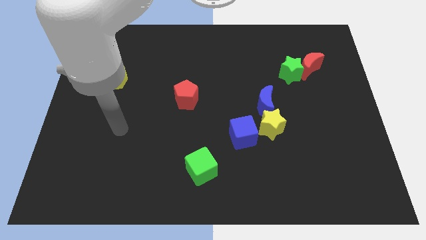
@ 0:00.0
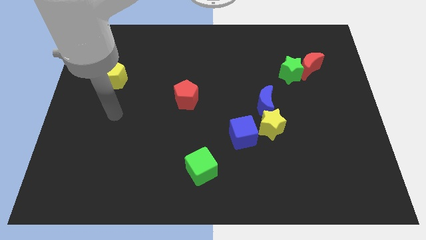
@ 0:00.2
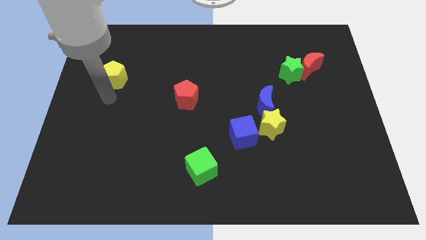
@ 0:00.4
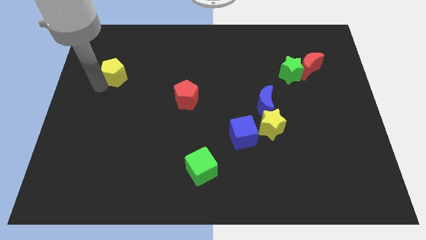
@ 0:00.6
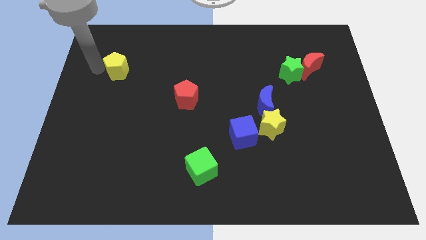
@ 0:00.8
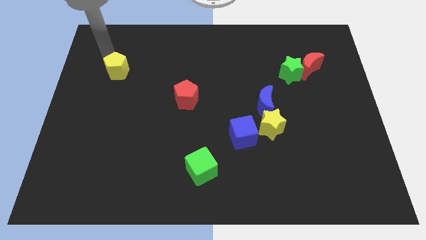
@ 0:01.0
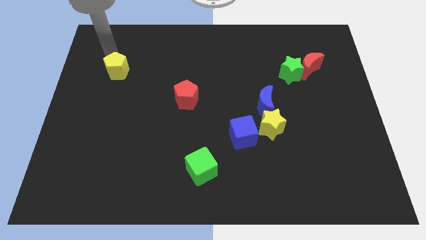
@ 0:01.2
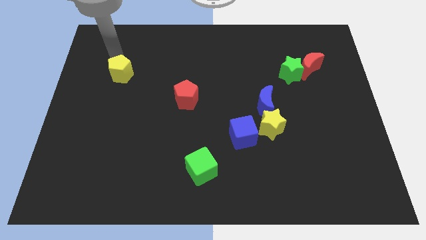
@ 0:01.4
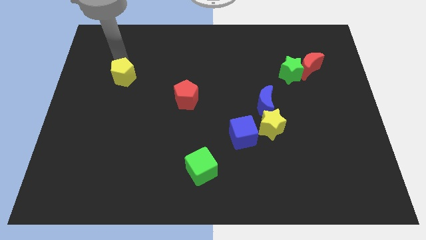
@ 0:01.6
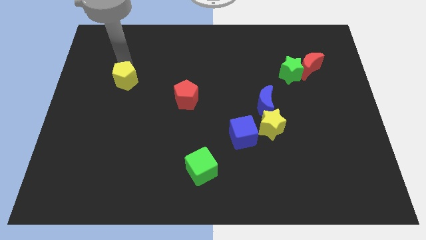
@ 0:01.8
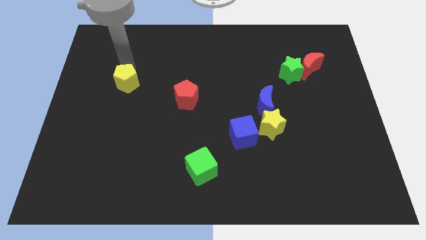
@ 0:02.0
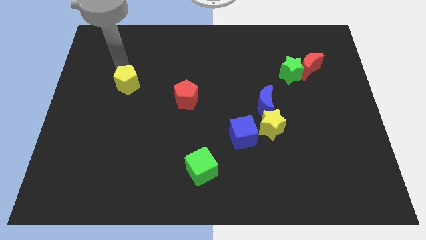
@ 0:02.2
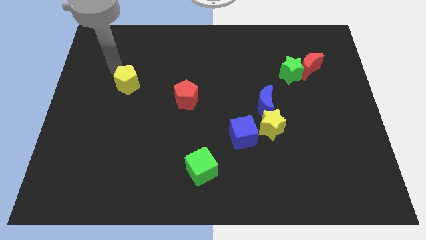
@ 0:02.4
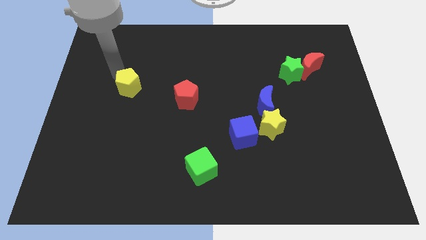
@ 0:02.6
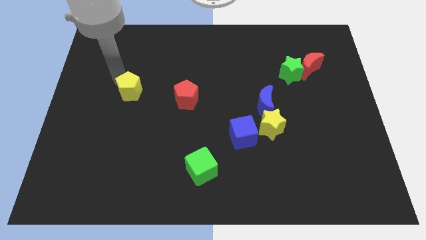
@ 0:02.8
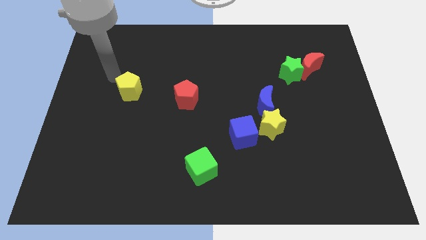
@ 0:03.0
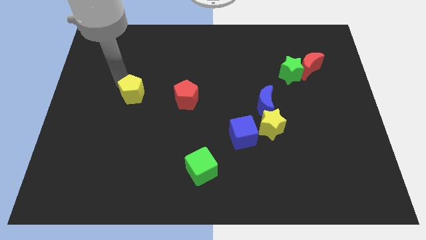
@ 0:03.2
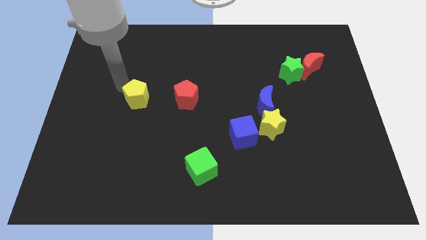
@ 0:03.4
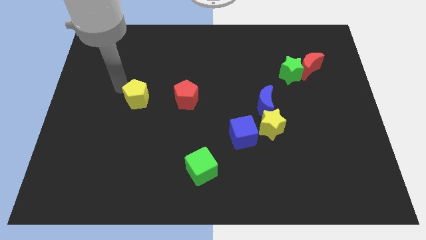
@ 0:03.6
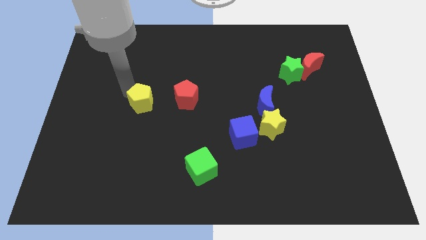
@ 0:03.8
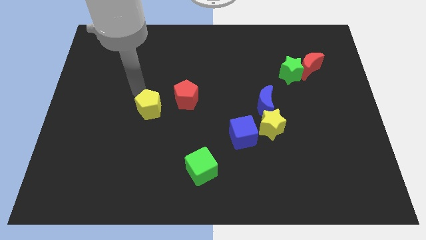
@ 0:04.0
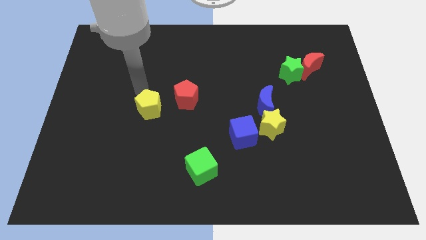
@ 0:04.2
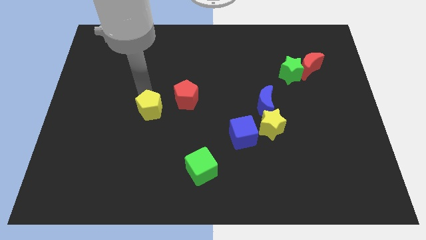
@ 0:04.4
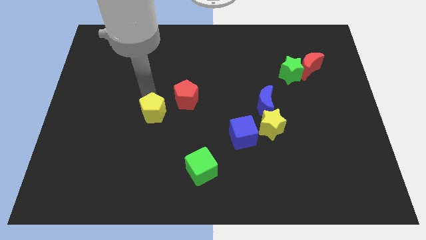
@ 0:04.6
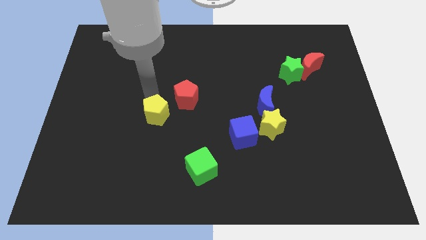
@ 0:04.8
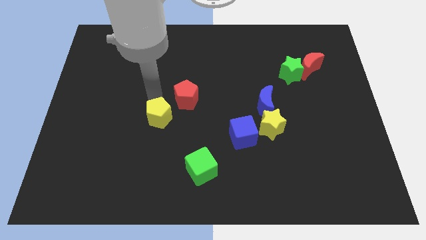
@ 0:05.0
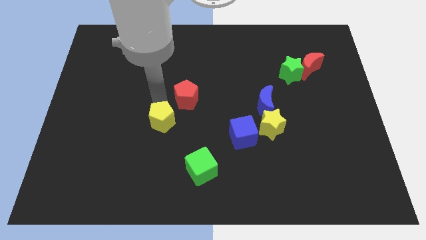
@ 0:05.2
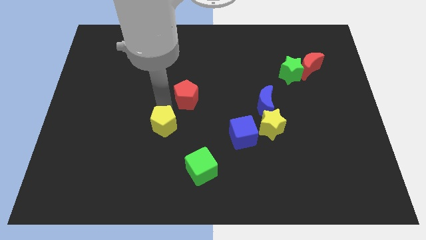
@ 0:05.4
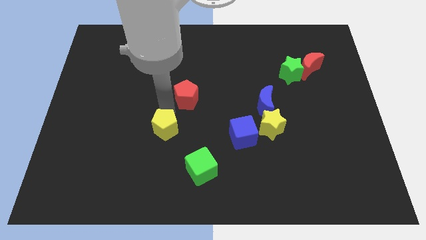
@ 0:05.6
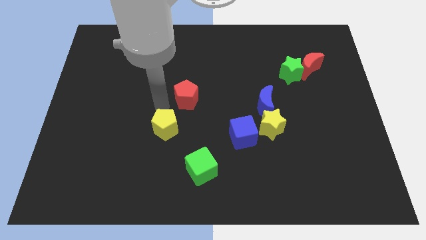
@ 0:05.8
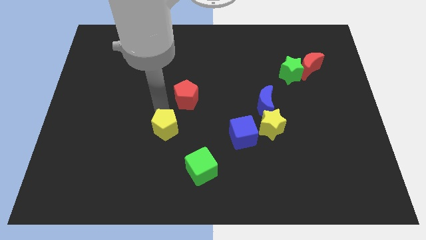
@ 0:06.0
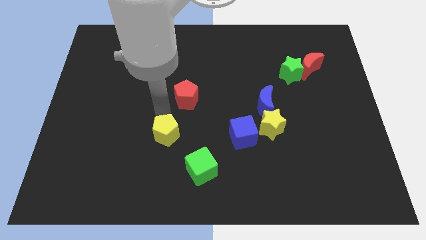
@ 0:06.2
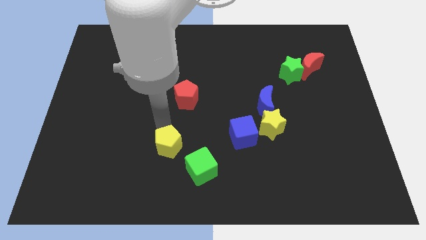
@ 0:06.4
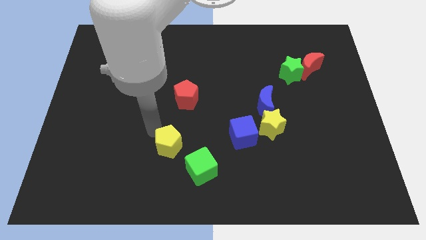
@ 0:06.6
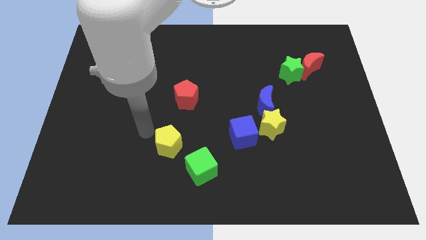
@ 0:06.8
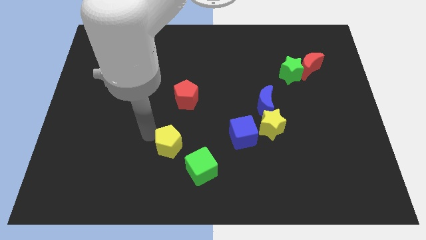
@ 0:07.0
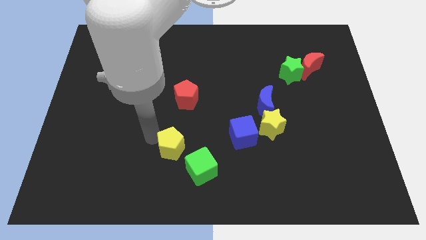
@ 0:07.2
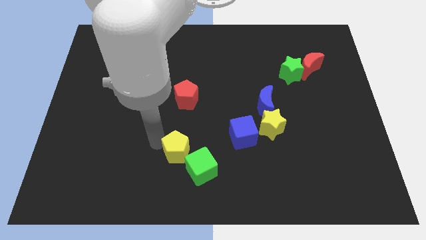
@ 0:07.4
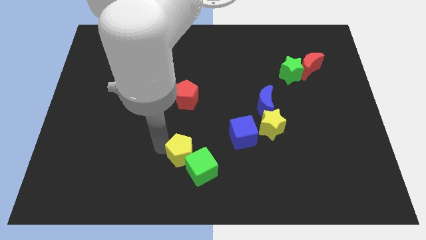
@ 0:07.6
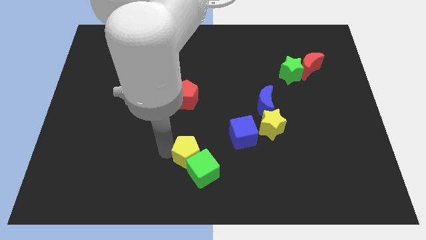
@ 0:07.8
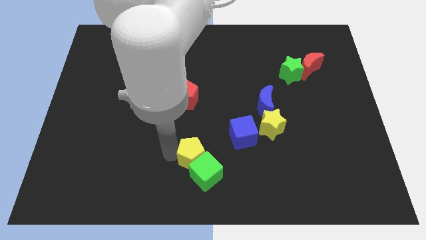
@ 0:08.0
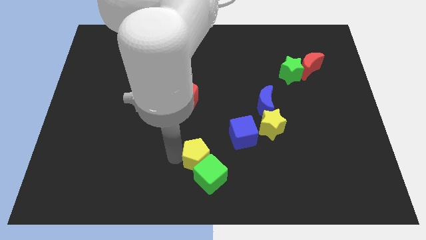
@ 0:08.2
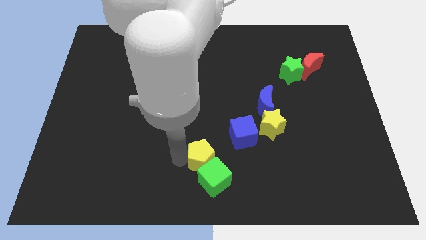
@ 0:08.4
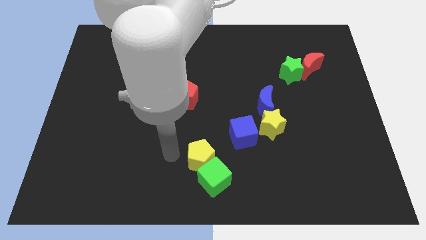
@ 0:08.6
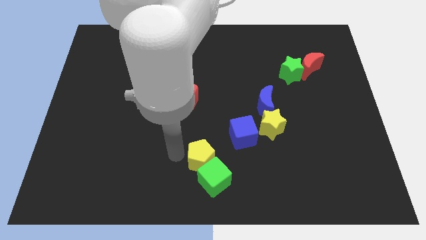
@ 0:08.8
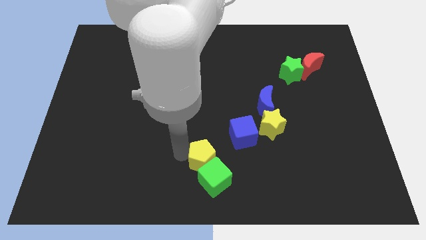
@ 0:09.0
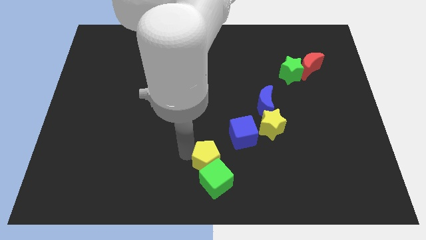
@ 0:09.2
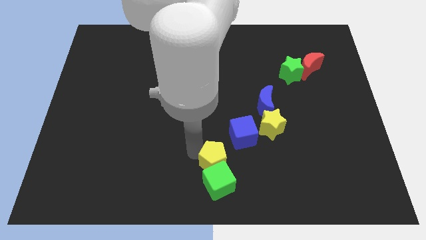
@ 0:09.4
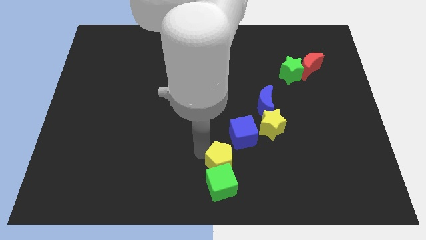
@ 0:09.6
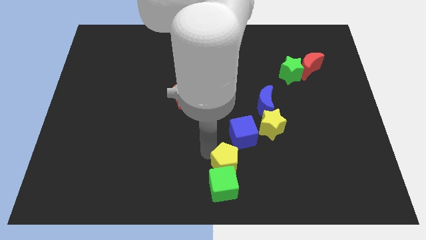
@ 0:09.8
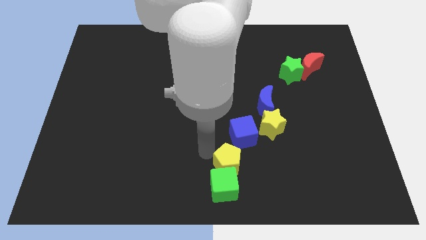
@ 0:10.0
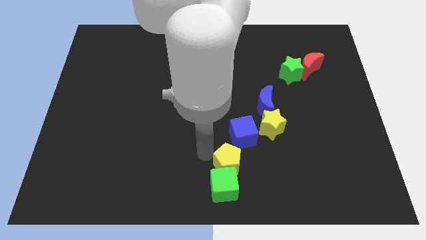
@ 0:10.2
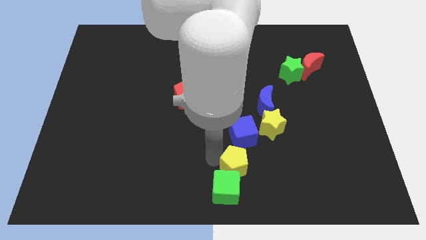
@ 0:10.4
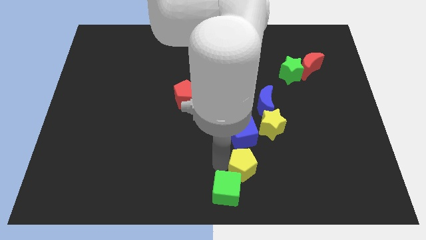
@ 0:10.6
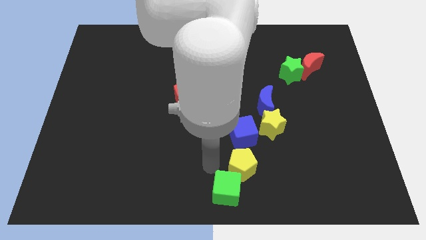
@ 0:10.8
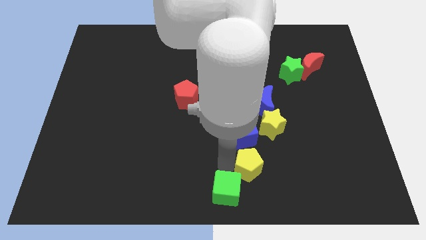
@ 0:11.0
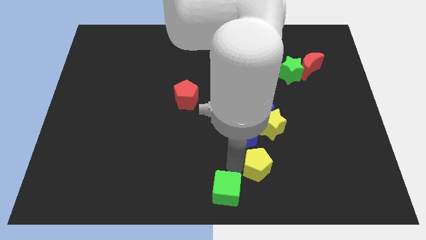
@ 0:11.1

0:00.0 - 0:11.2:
slide the yellow pentagon to the bottom of the yellow star

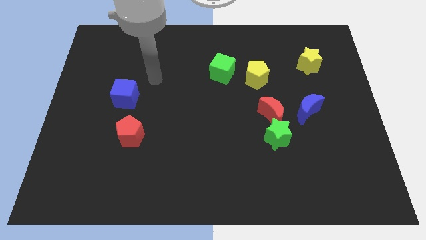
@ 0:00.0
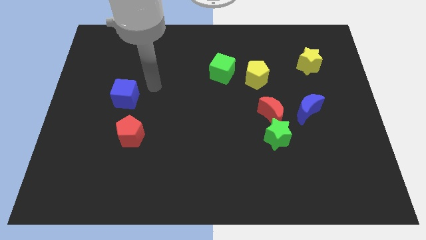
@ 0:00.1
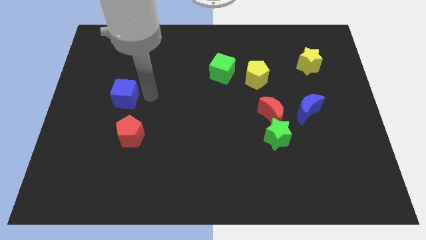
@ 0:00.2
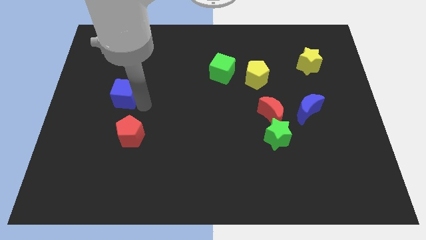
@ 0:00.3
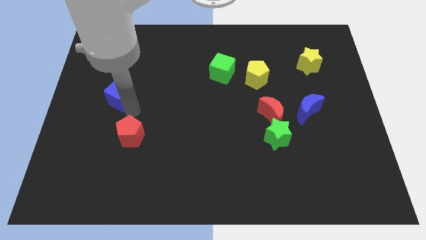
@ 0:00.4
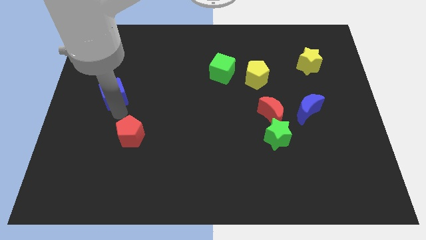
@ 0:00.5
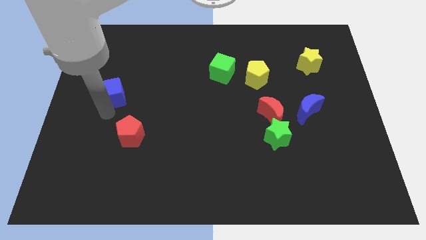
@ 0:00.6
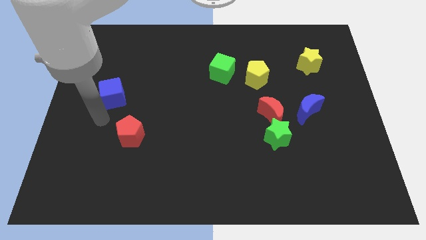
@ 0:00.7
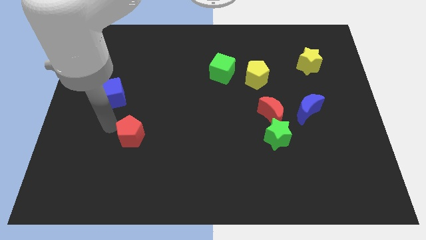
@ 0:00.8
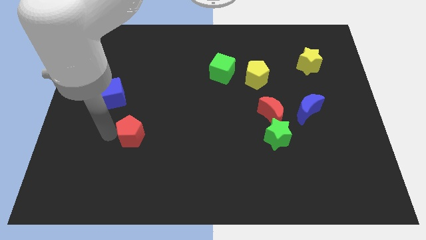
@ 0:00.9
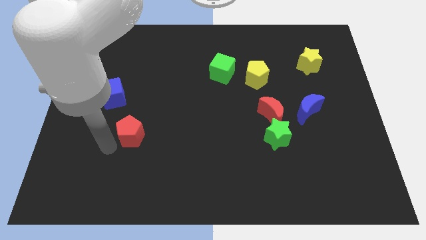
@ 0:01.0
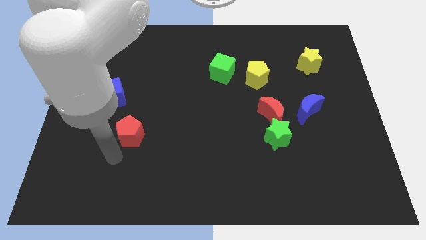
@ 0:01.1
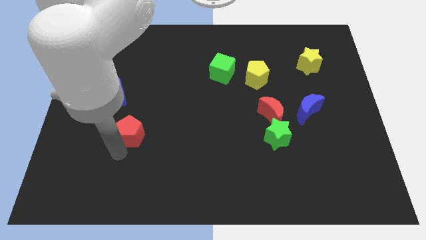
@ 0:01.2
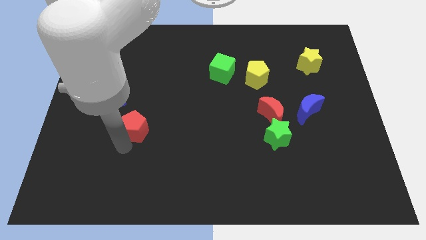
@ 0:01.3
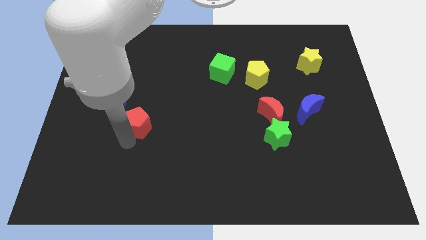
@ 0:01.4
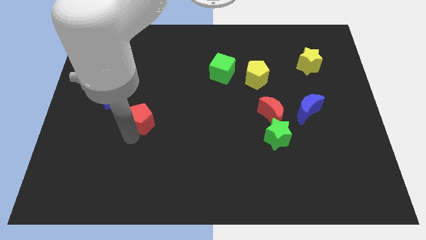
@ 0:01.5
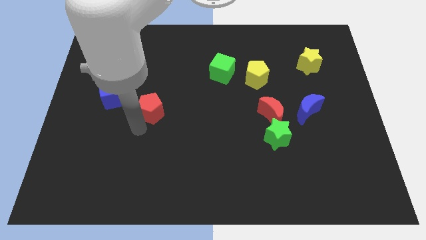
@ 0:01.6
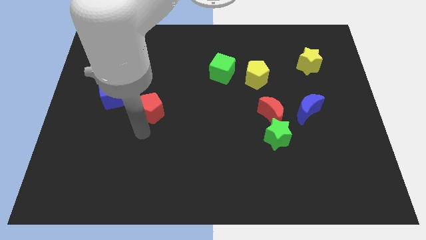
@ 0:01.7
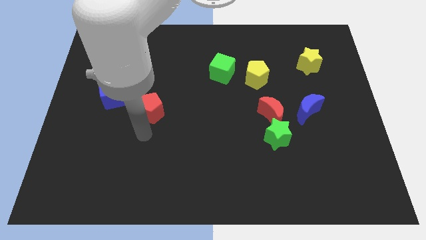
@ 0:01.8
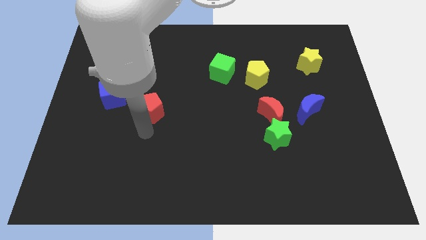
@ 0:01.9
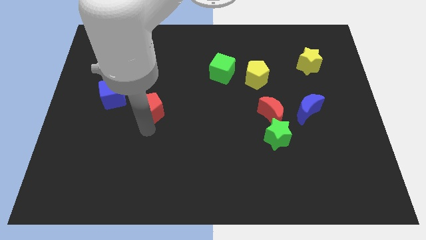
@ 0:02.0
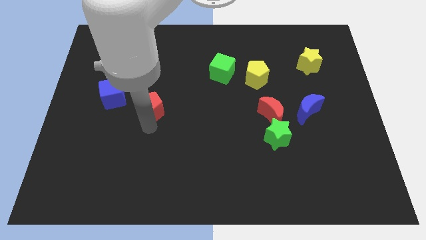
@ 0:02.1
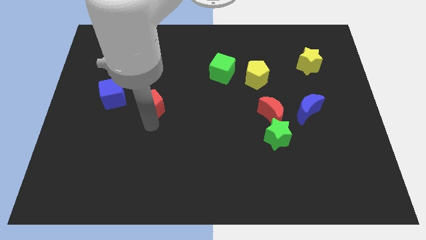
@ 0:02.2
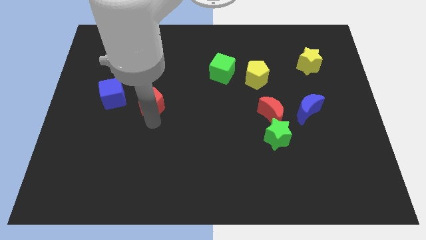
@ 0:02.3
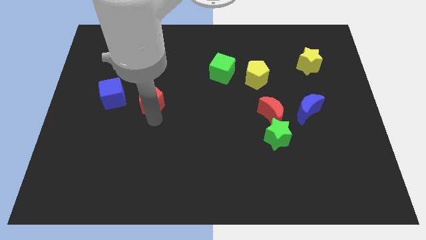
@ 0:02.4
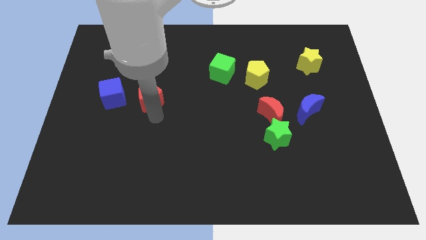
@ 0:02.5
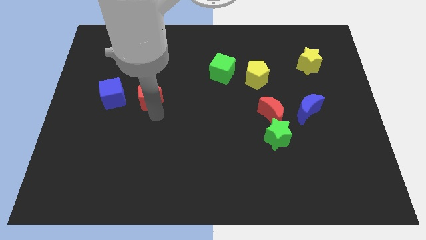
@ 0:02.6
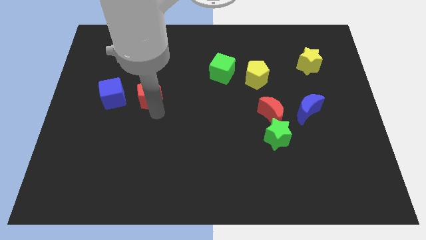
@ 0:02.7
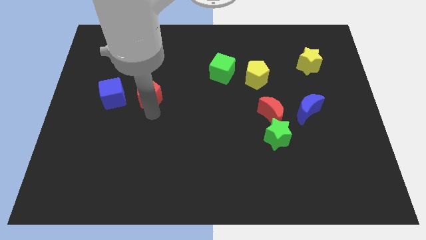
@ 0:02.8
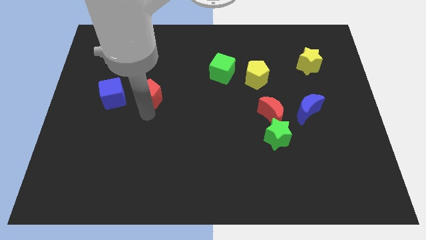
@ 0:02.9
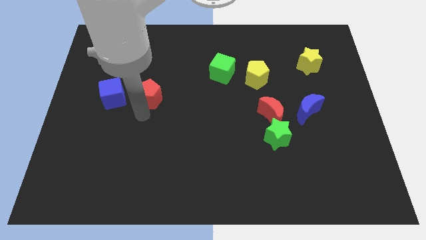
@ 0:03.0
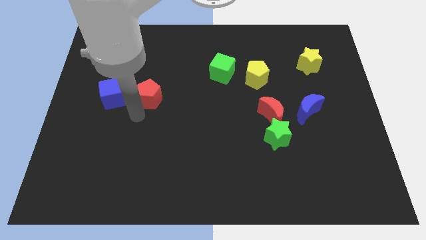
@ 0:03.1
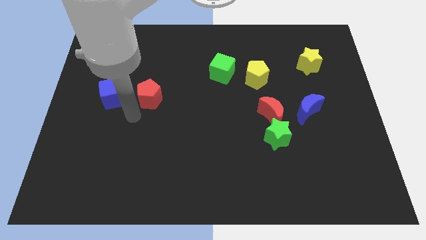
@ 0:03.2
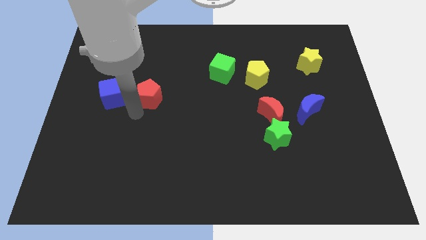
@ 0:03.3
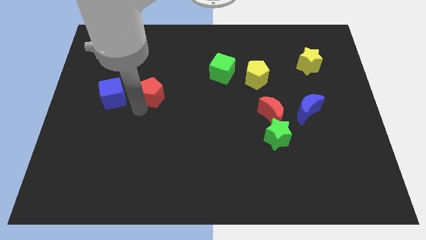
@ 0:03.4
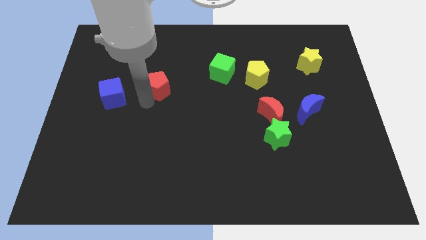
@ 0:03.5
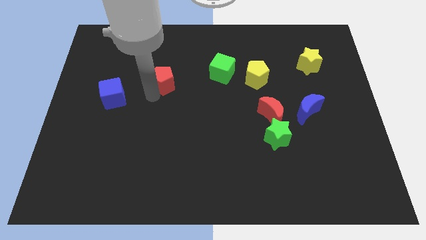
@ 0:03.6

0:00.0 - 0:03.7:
push the red pentagon left of the green cube
